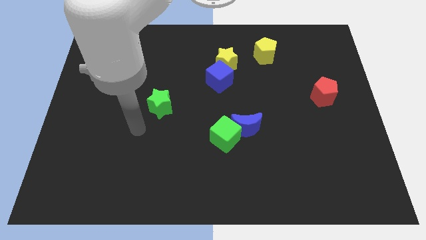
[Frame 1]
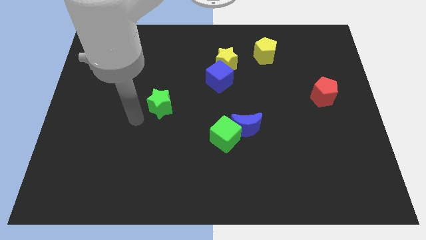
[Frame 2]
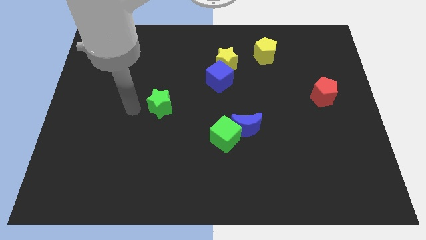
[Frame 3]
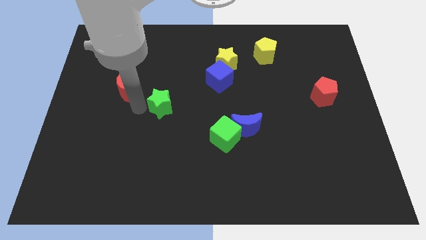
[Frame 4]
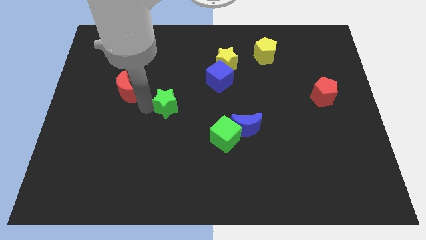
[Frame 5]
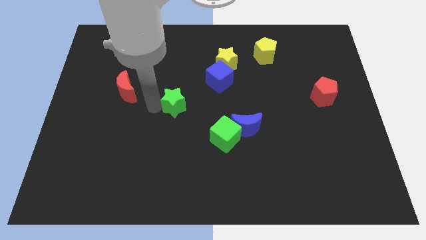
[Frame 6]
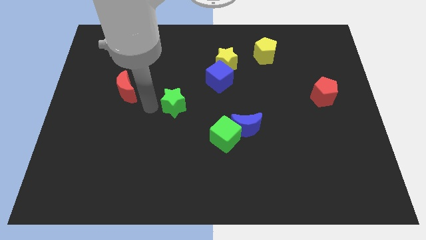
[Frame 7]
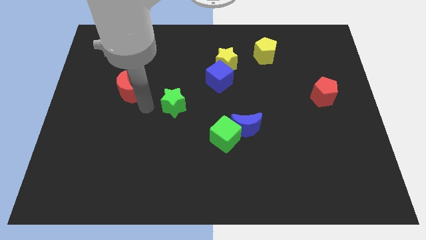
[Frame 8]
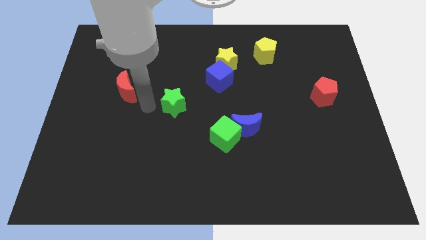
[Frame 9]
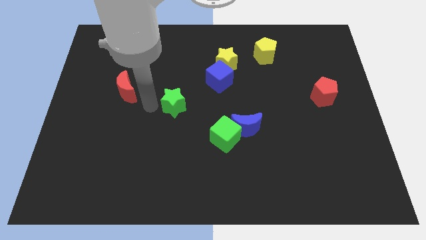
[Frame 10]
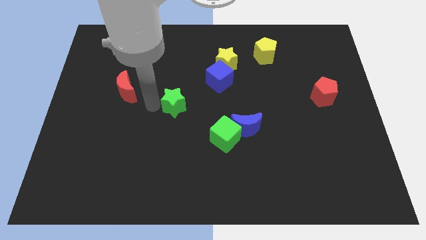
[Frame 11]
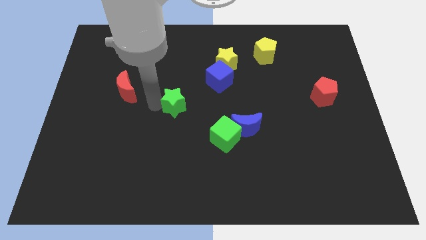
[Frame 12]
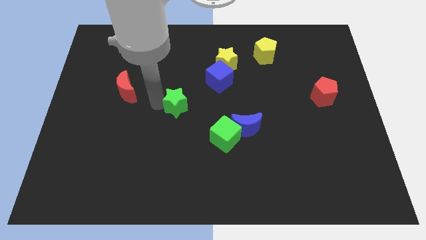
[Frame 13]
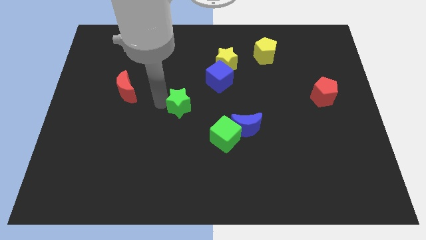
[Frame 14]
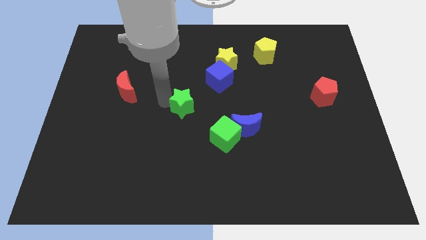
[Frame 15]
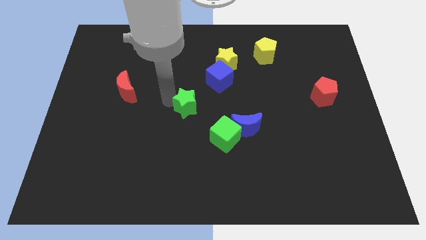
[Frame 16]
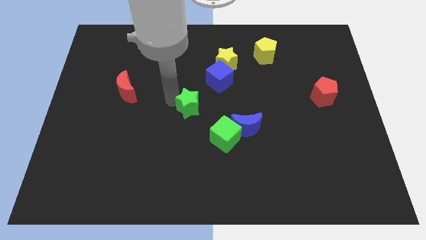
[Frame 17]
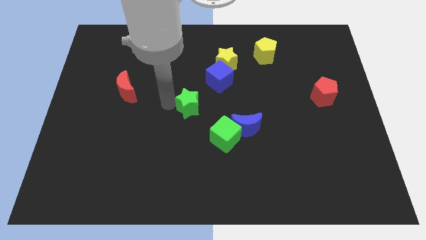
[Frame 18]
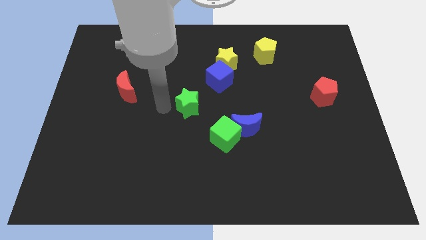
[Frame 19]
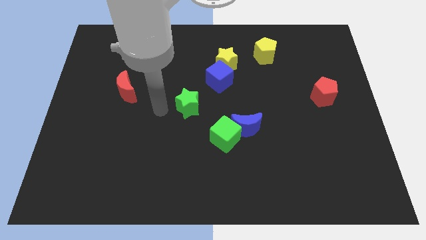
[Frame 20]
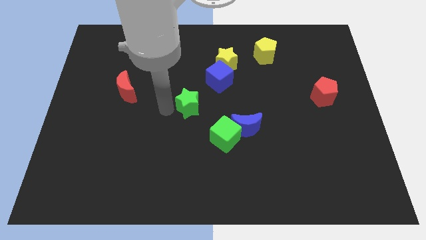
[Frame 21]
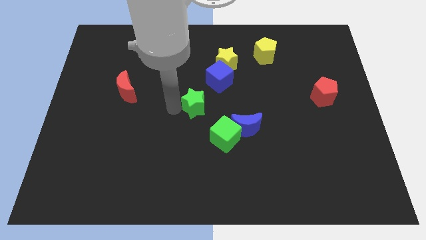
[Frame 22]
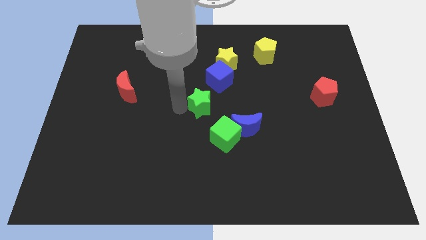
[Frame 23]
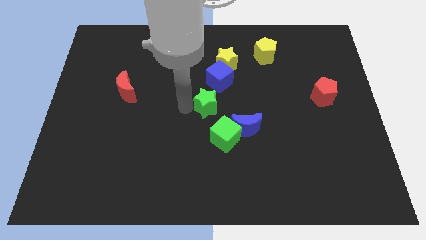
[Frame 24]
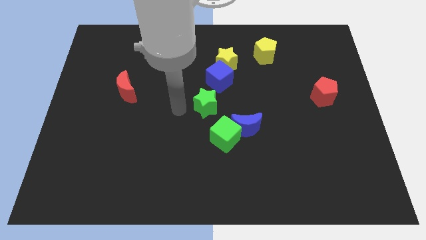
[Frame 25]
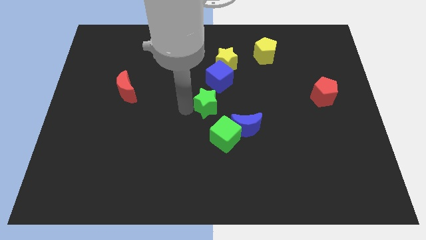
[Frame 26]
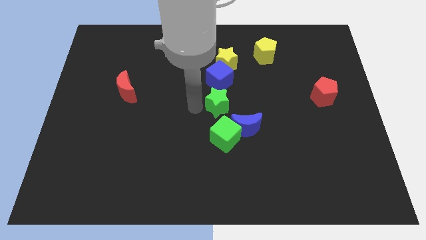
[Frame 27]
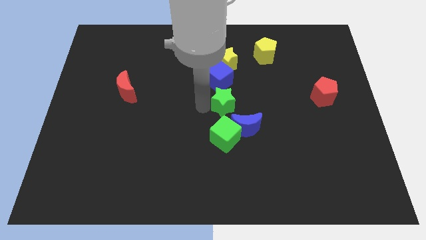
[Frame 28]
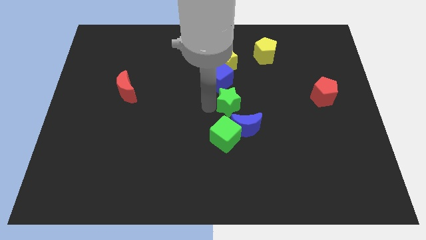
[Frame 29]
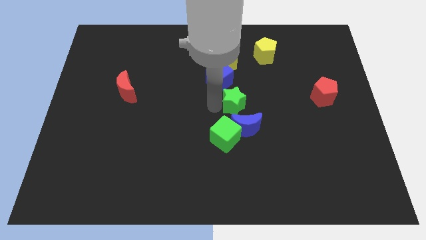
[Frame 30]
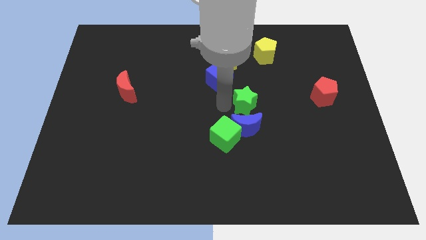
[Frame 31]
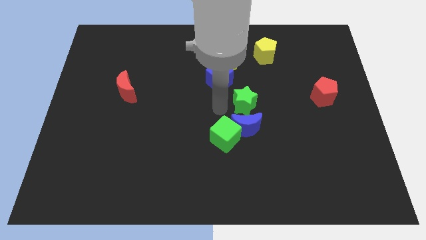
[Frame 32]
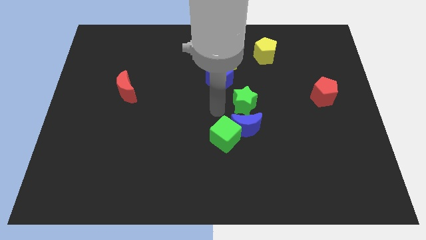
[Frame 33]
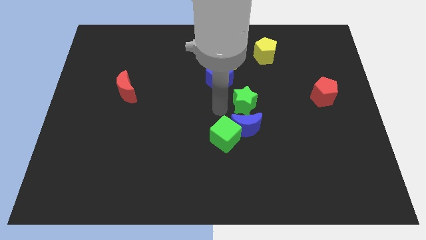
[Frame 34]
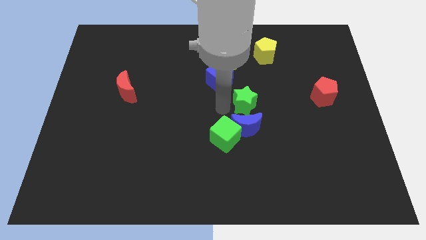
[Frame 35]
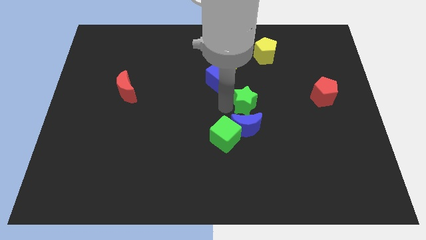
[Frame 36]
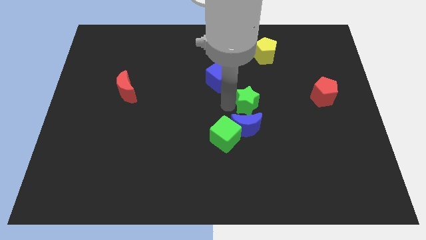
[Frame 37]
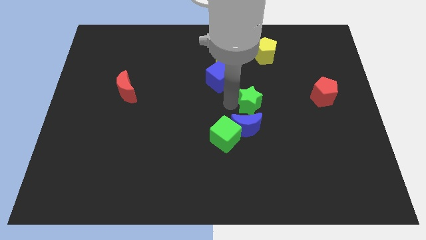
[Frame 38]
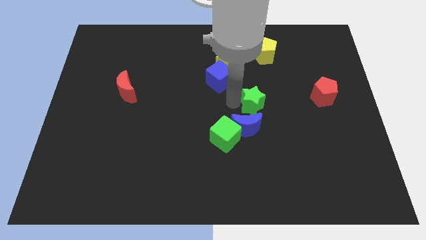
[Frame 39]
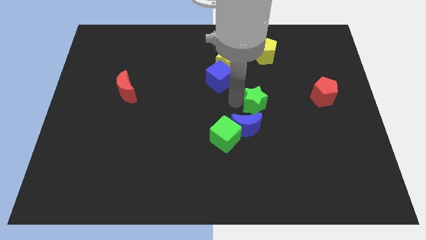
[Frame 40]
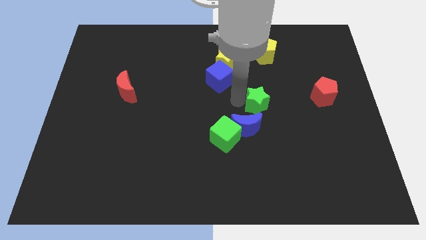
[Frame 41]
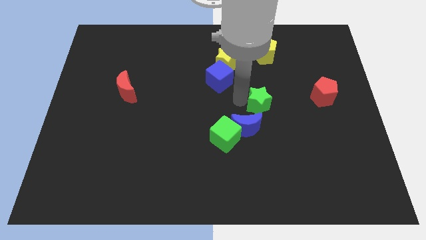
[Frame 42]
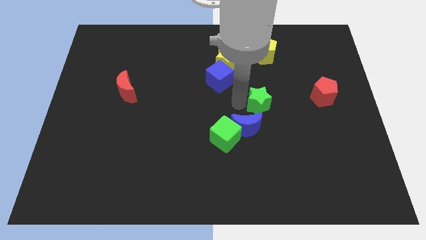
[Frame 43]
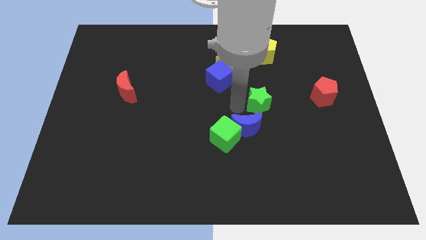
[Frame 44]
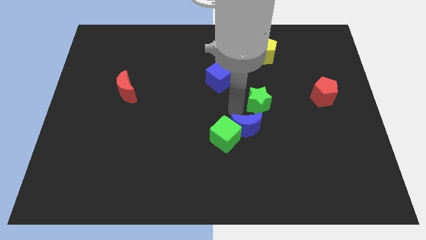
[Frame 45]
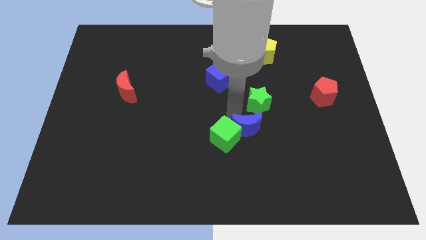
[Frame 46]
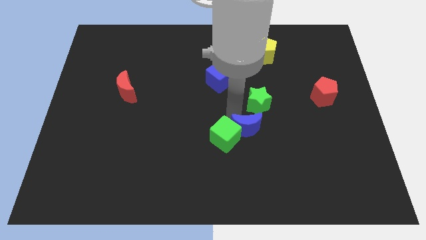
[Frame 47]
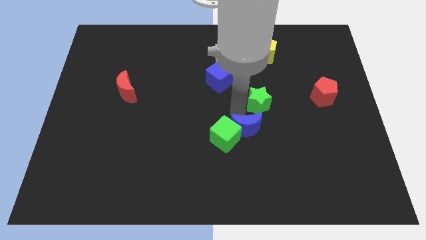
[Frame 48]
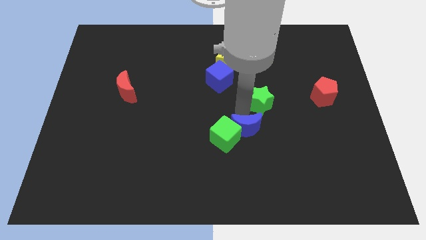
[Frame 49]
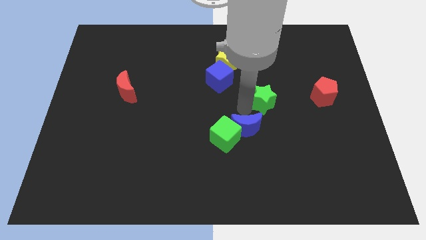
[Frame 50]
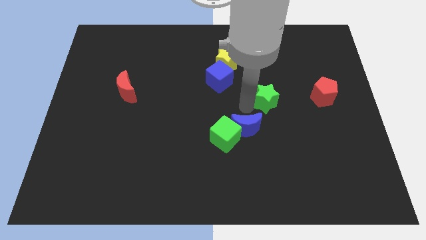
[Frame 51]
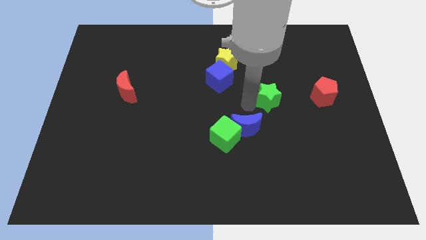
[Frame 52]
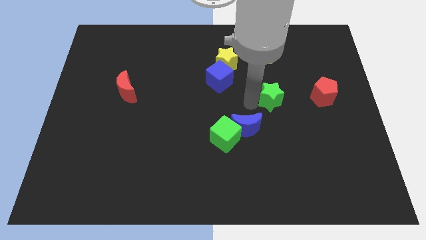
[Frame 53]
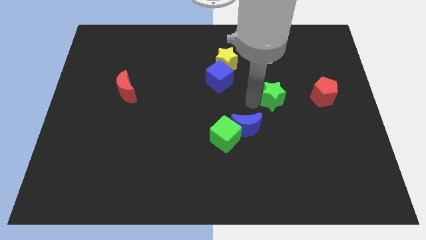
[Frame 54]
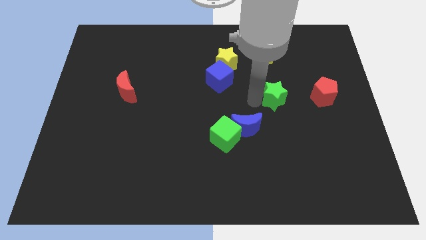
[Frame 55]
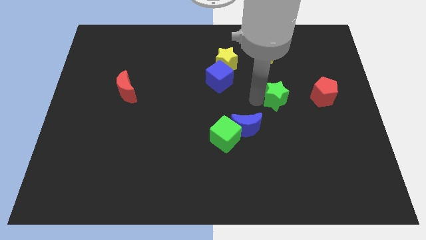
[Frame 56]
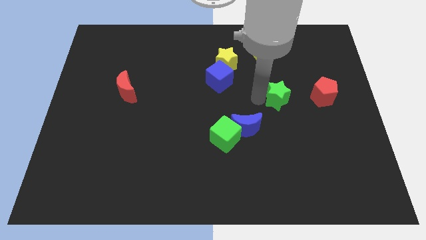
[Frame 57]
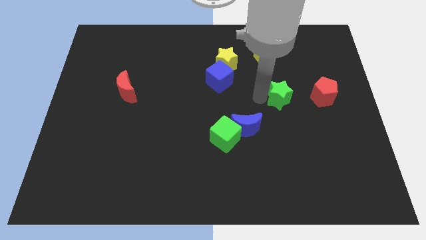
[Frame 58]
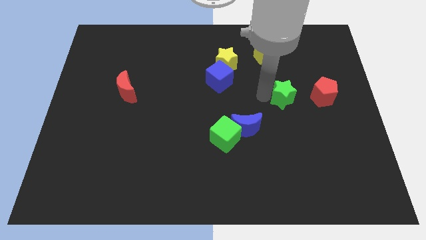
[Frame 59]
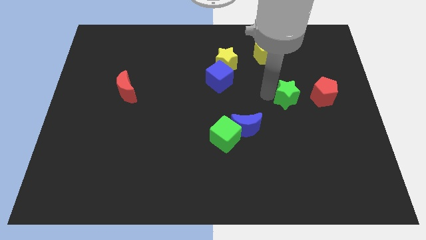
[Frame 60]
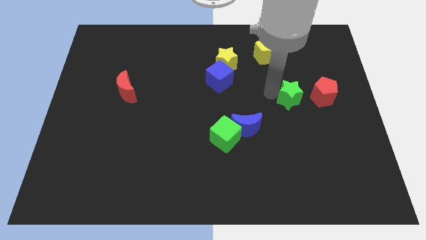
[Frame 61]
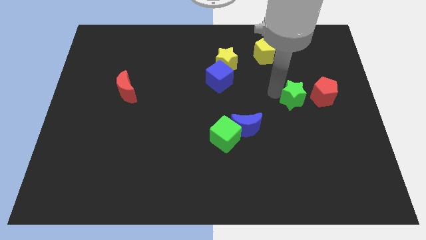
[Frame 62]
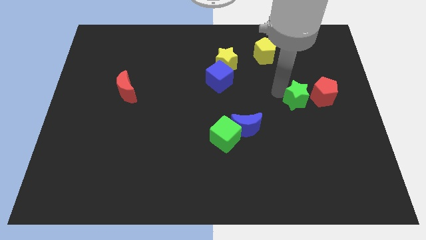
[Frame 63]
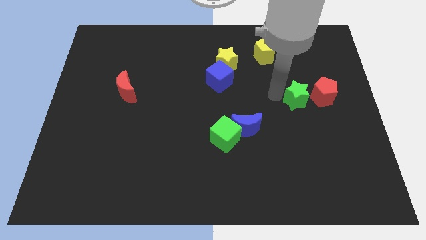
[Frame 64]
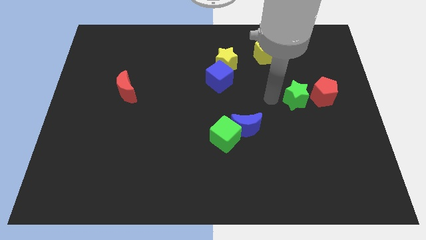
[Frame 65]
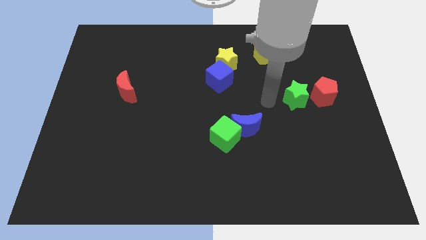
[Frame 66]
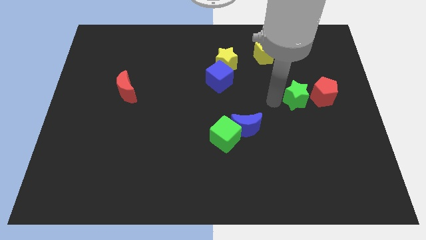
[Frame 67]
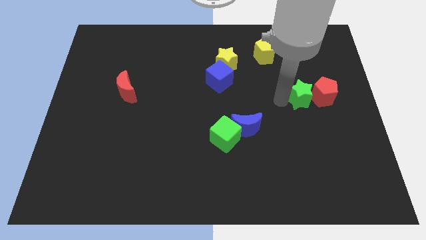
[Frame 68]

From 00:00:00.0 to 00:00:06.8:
push the green star close to the red pentagon
